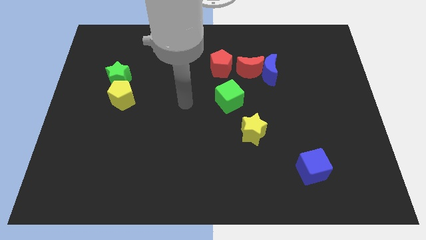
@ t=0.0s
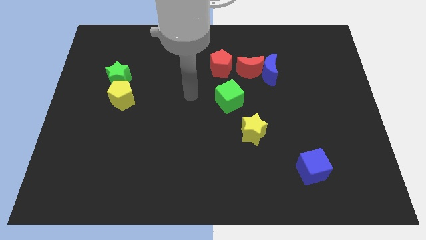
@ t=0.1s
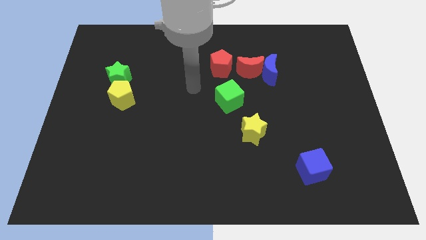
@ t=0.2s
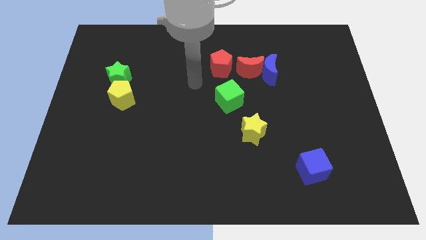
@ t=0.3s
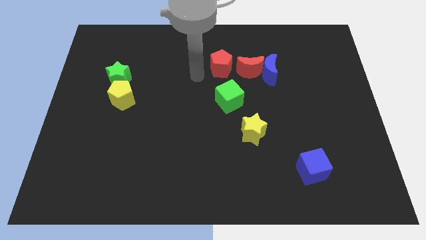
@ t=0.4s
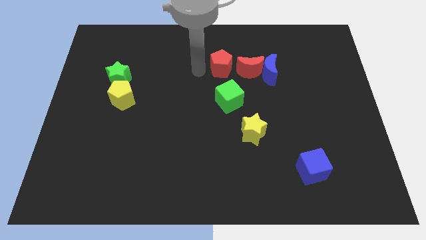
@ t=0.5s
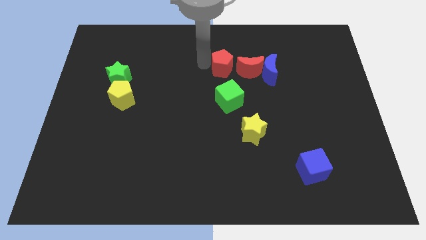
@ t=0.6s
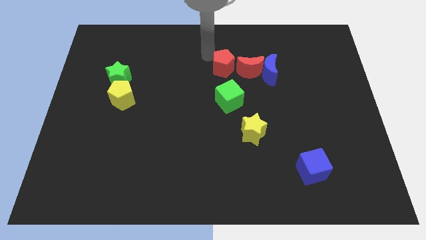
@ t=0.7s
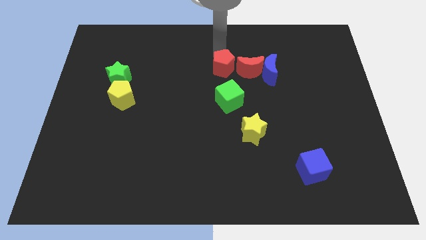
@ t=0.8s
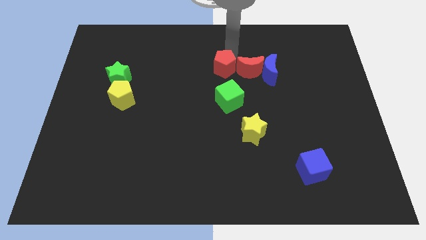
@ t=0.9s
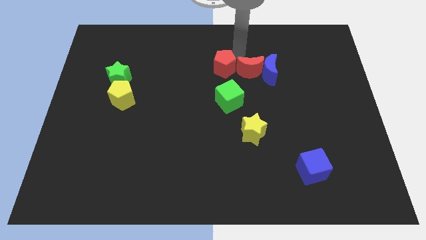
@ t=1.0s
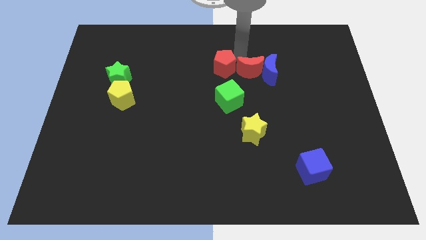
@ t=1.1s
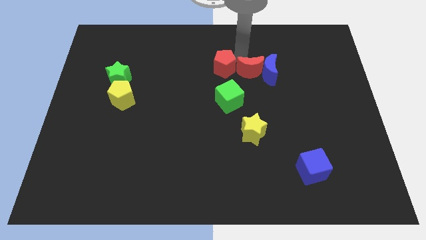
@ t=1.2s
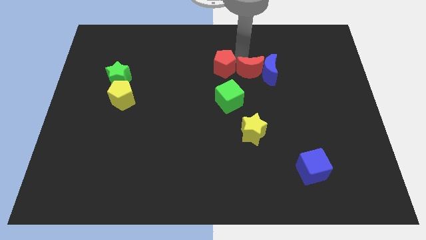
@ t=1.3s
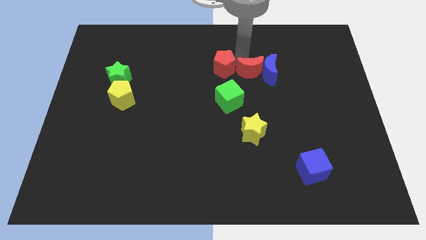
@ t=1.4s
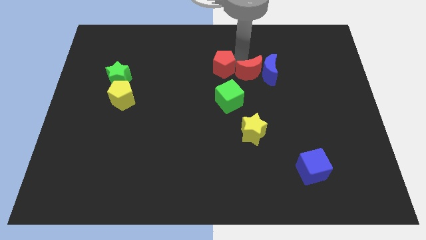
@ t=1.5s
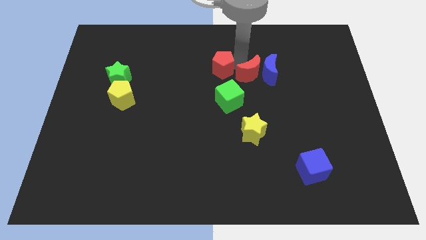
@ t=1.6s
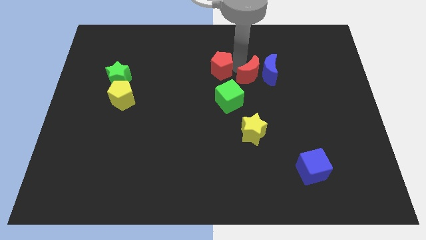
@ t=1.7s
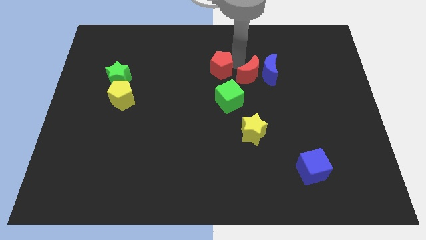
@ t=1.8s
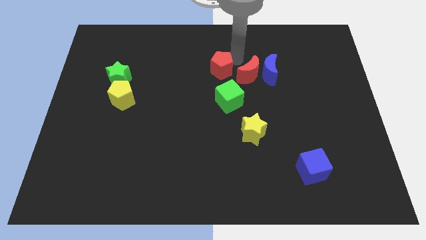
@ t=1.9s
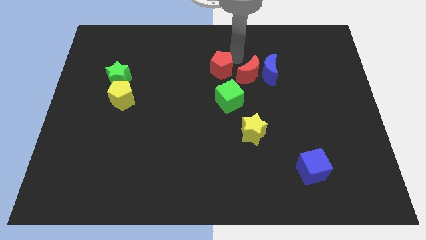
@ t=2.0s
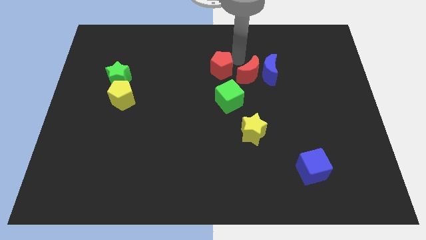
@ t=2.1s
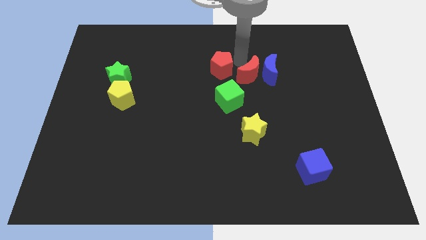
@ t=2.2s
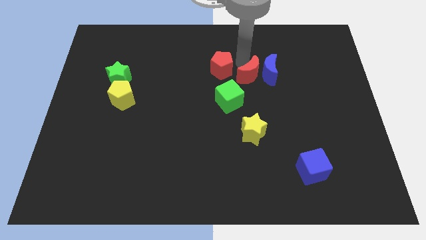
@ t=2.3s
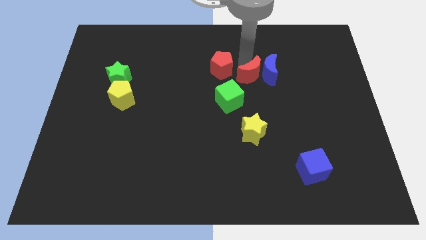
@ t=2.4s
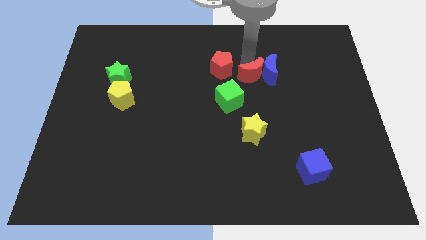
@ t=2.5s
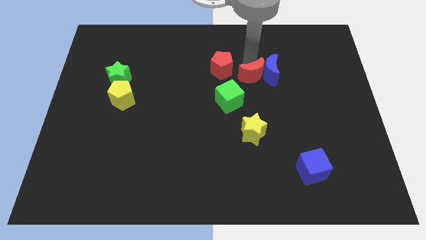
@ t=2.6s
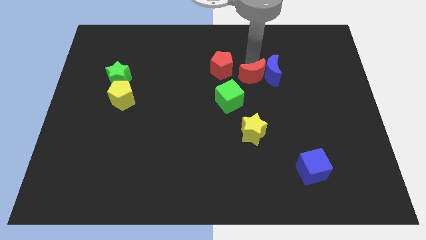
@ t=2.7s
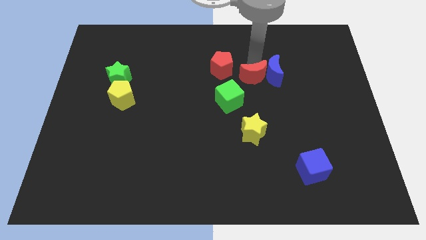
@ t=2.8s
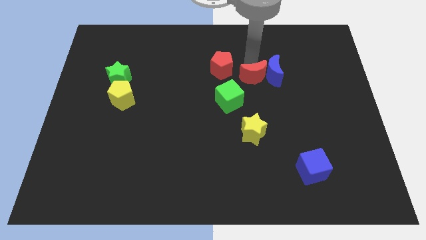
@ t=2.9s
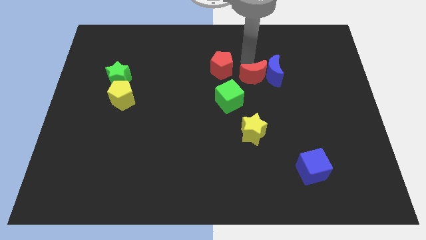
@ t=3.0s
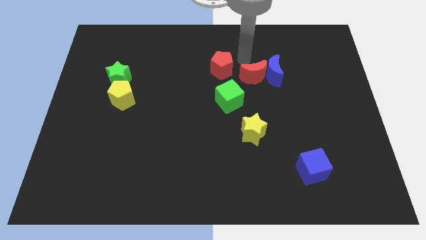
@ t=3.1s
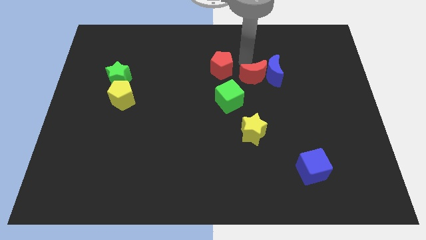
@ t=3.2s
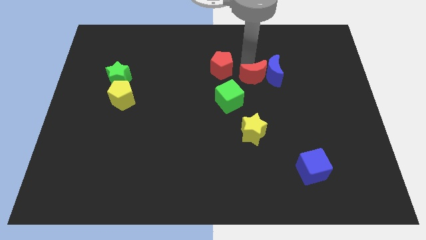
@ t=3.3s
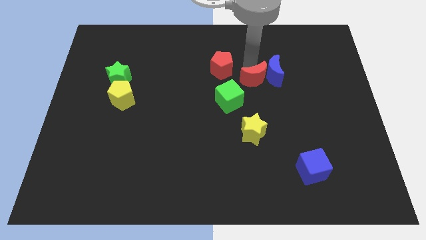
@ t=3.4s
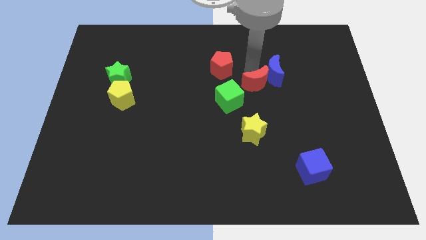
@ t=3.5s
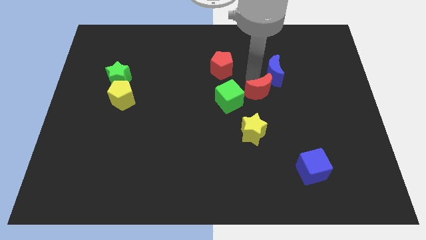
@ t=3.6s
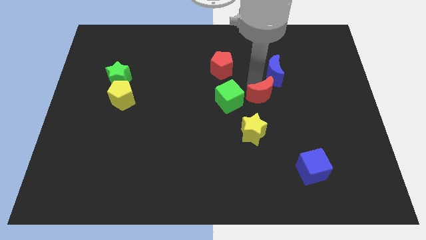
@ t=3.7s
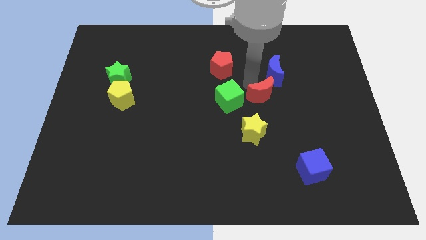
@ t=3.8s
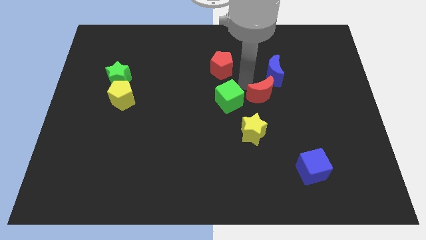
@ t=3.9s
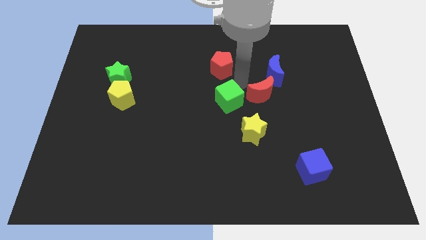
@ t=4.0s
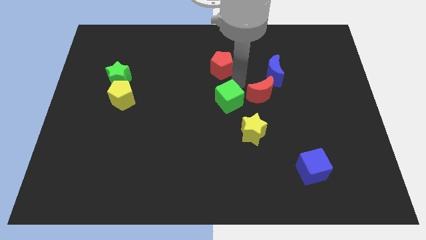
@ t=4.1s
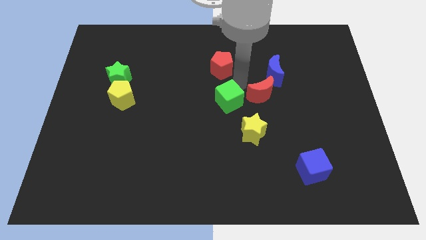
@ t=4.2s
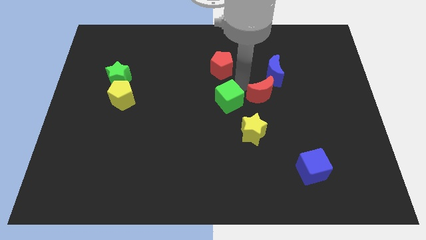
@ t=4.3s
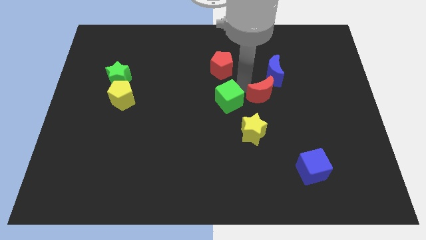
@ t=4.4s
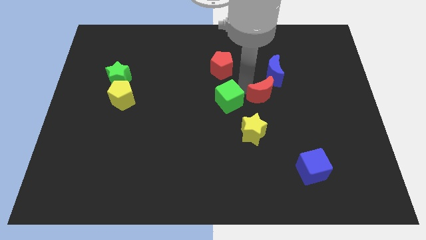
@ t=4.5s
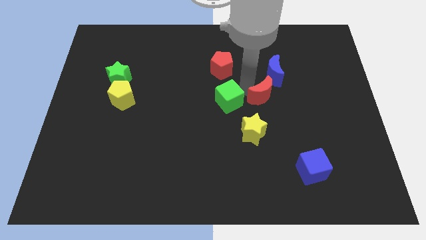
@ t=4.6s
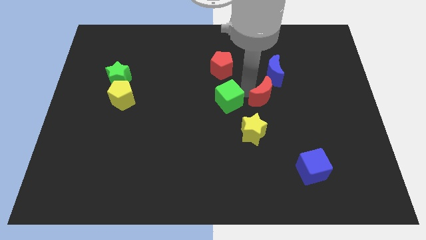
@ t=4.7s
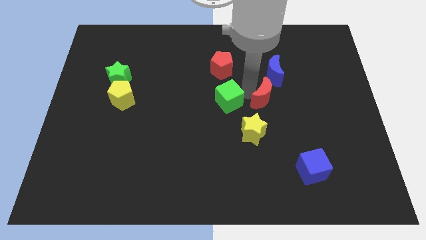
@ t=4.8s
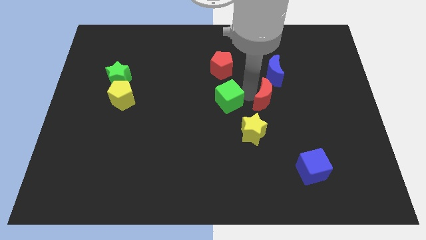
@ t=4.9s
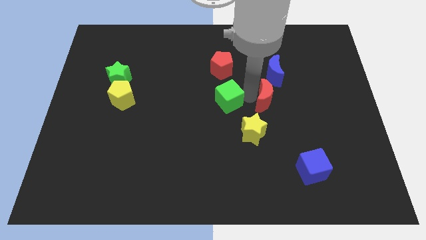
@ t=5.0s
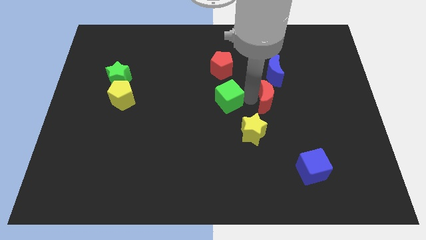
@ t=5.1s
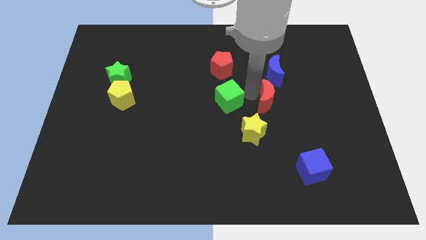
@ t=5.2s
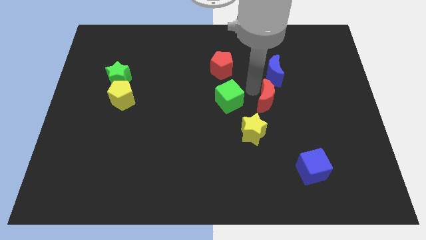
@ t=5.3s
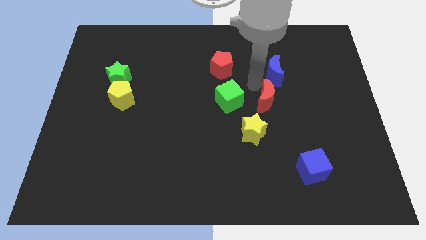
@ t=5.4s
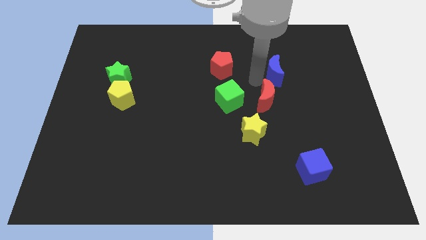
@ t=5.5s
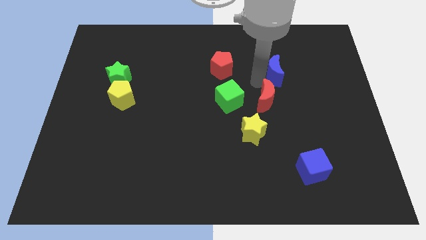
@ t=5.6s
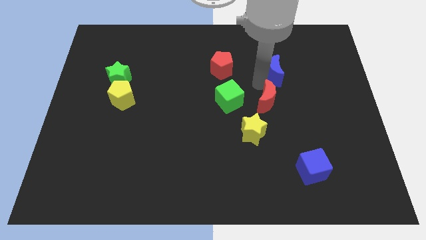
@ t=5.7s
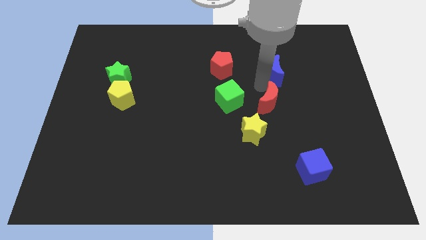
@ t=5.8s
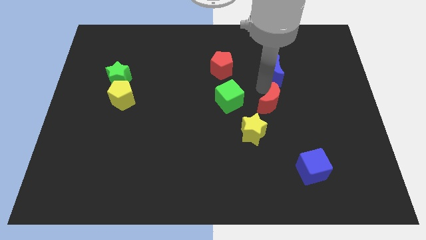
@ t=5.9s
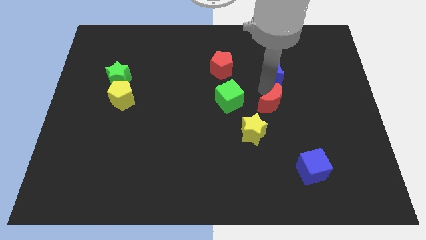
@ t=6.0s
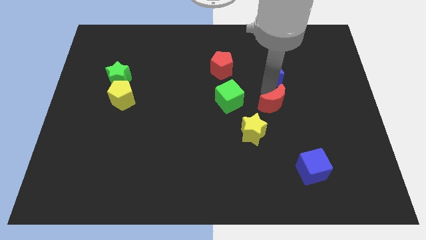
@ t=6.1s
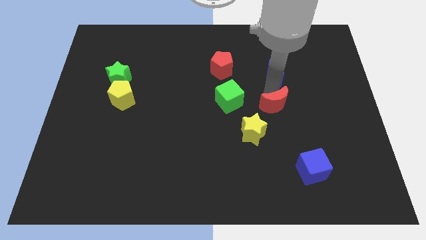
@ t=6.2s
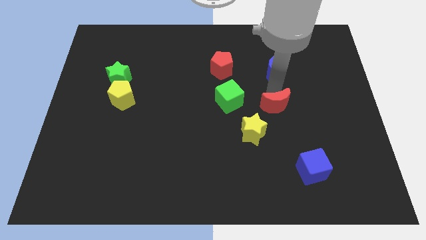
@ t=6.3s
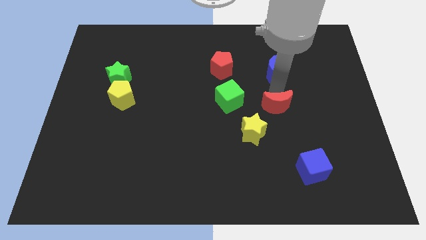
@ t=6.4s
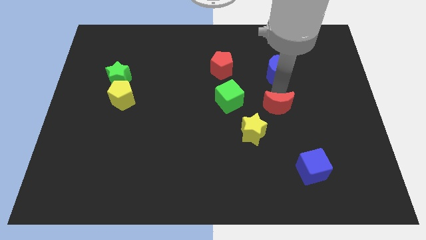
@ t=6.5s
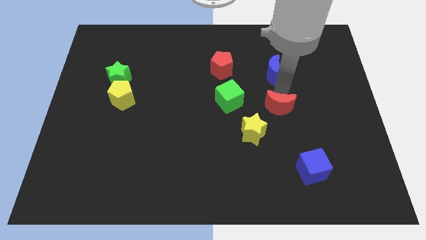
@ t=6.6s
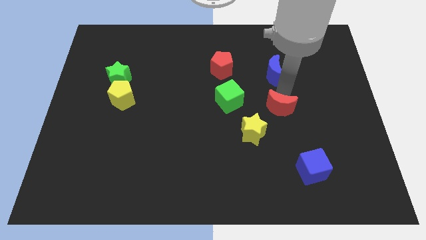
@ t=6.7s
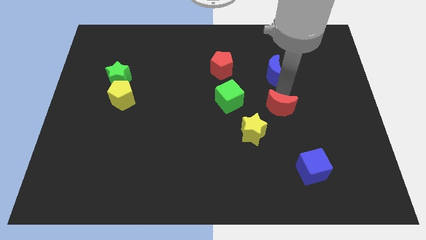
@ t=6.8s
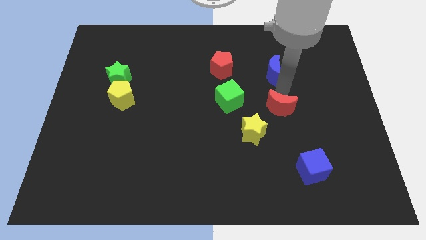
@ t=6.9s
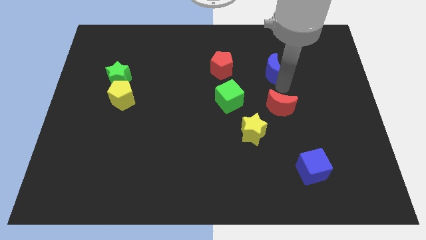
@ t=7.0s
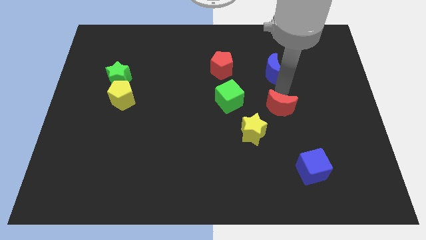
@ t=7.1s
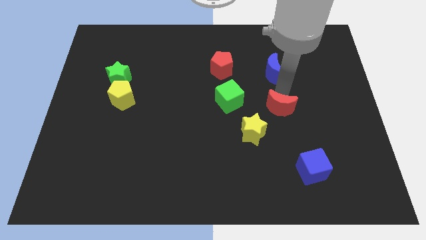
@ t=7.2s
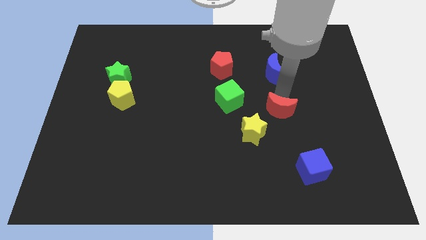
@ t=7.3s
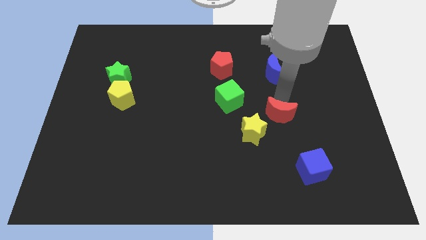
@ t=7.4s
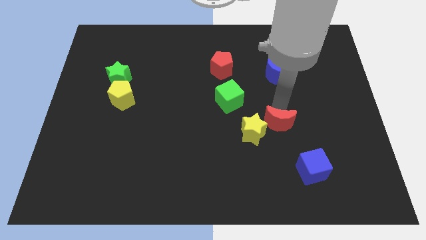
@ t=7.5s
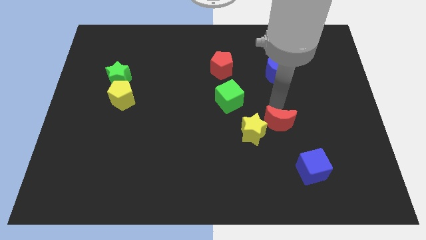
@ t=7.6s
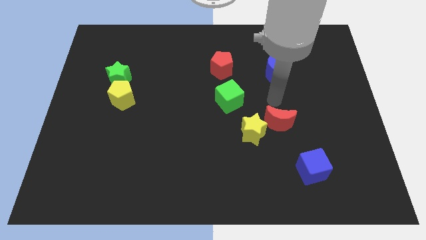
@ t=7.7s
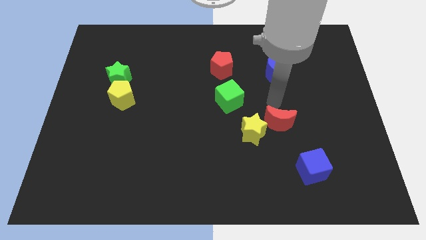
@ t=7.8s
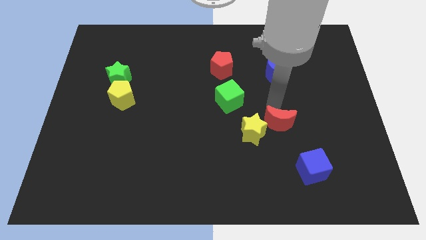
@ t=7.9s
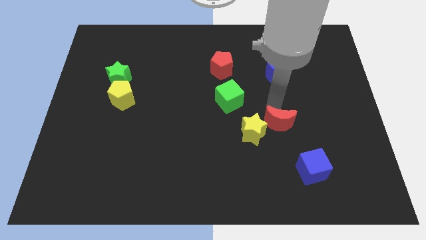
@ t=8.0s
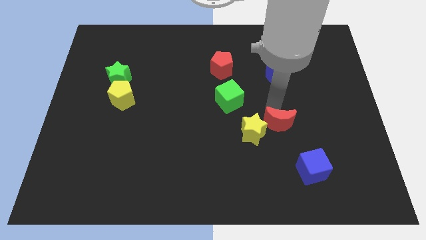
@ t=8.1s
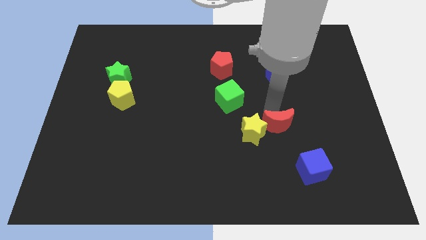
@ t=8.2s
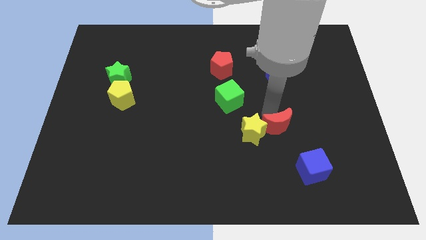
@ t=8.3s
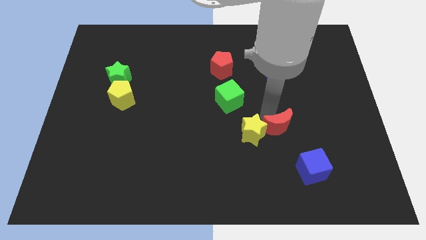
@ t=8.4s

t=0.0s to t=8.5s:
move the red moon to the top left side of the blue cube
